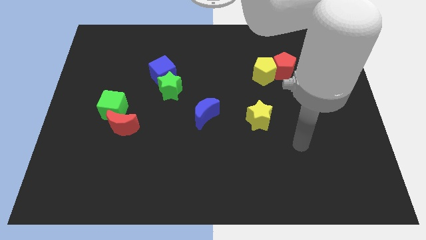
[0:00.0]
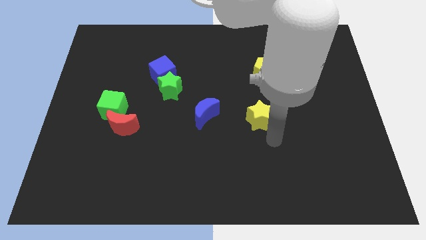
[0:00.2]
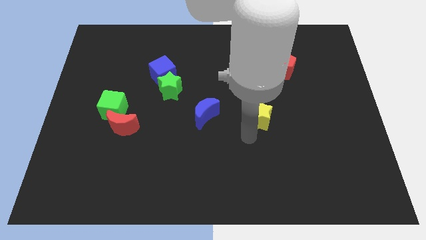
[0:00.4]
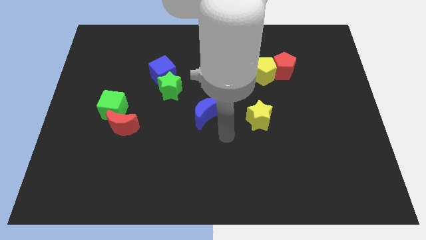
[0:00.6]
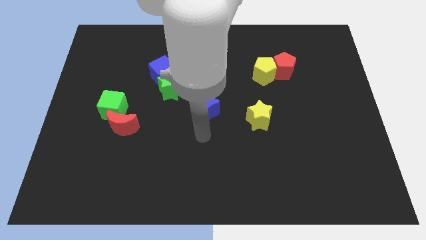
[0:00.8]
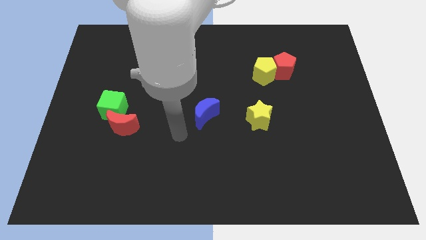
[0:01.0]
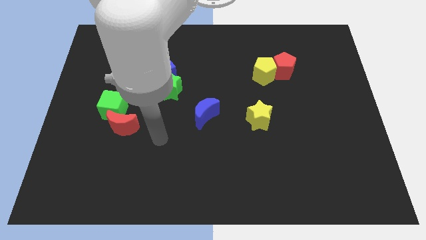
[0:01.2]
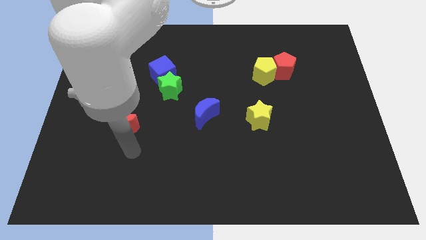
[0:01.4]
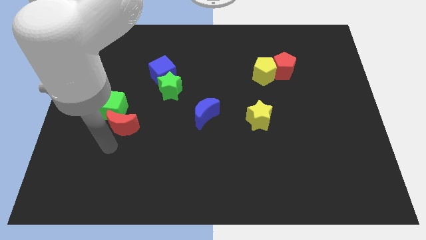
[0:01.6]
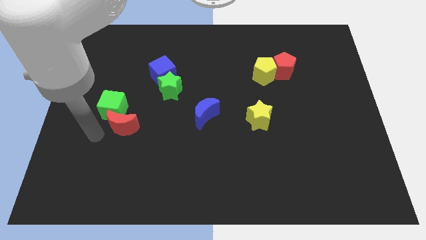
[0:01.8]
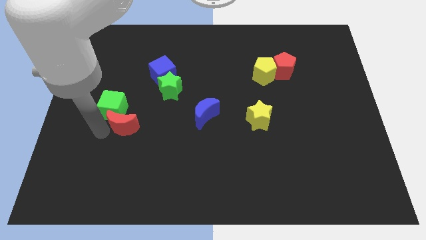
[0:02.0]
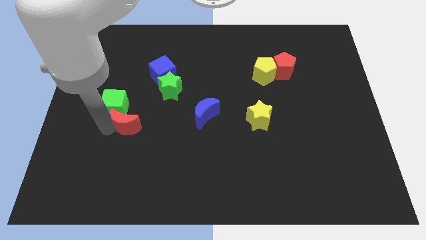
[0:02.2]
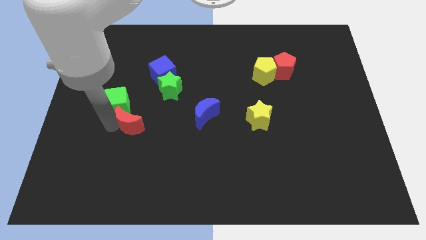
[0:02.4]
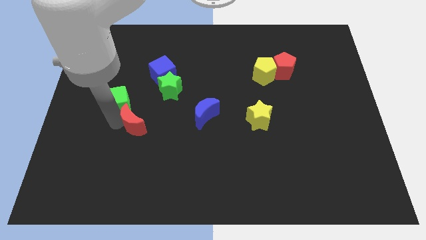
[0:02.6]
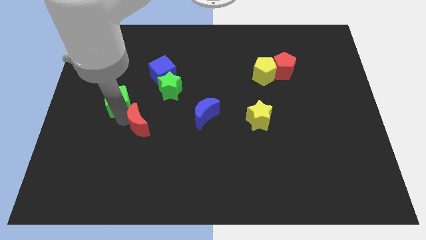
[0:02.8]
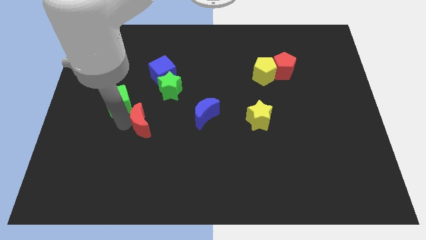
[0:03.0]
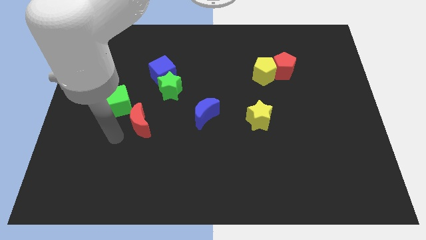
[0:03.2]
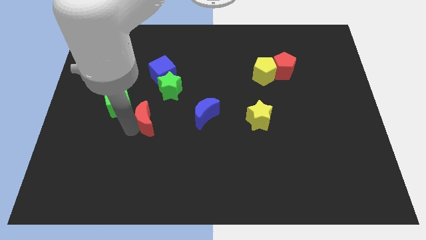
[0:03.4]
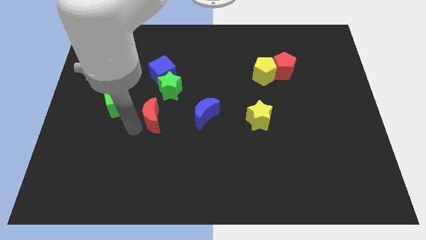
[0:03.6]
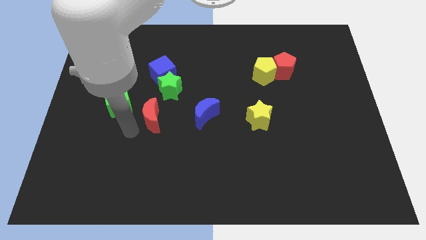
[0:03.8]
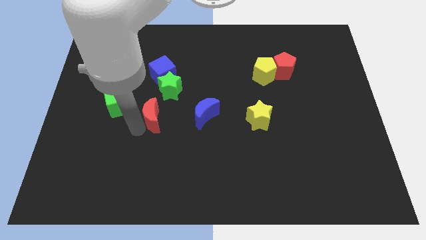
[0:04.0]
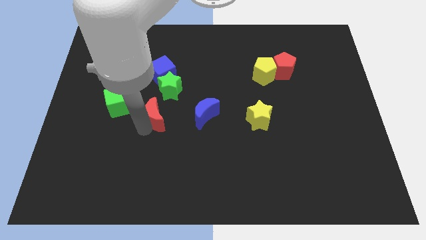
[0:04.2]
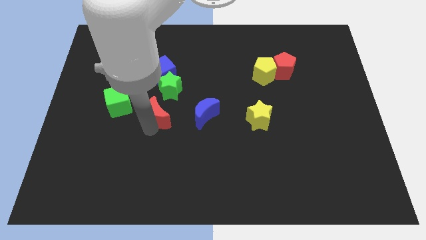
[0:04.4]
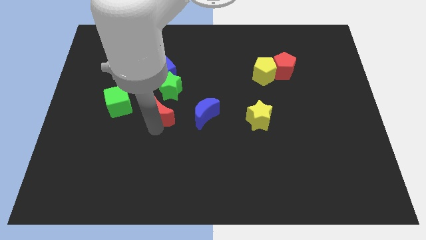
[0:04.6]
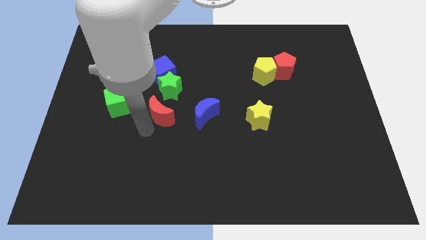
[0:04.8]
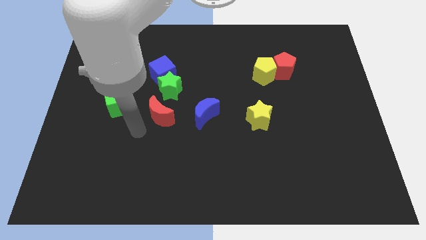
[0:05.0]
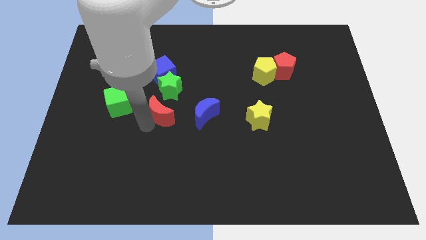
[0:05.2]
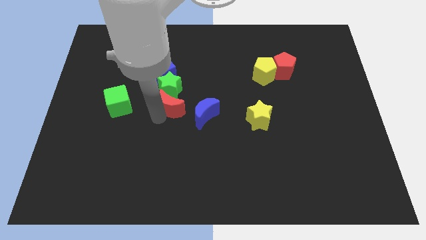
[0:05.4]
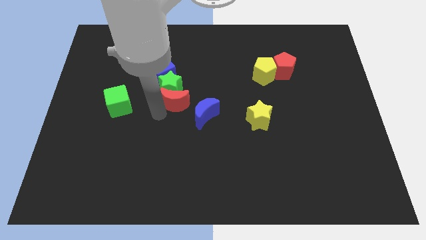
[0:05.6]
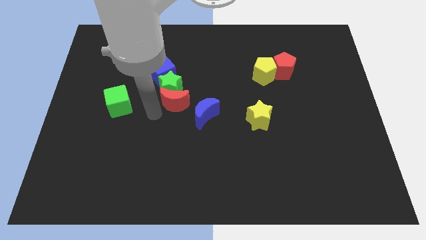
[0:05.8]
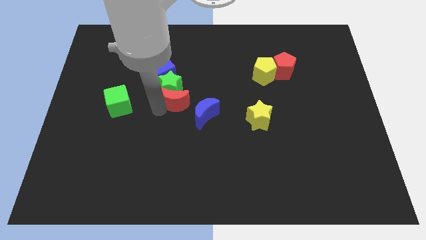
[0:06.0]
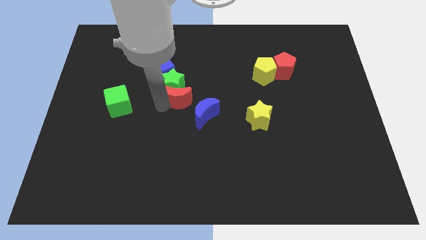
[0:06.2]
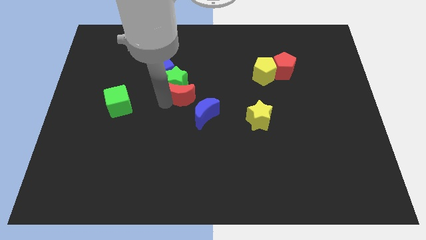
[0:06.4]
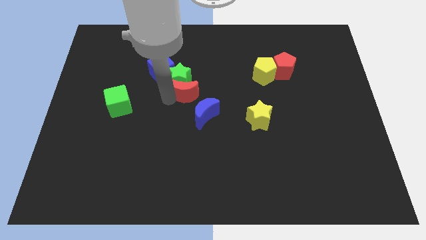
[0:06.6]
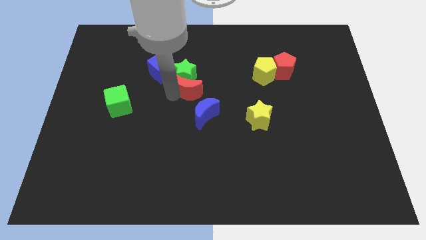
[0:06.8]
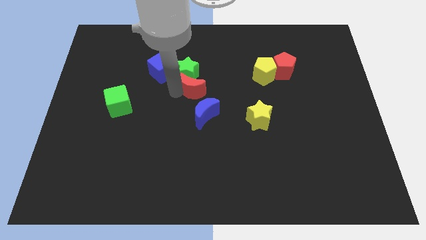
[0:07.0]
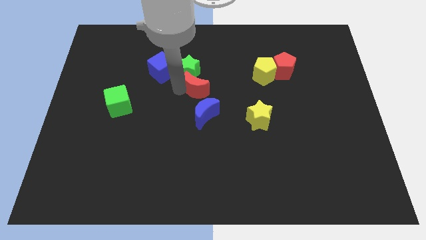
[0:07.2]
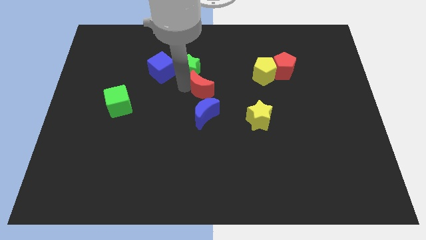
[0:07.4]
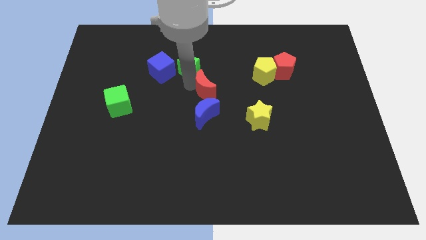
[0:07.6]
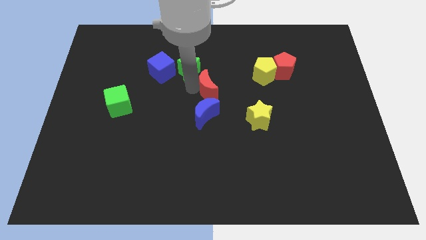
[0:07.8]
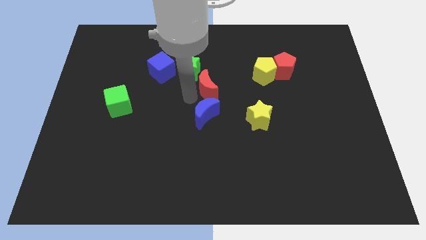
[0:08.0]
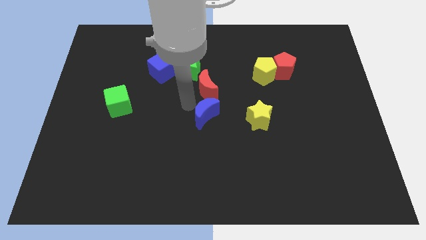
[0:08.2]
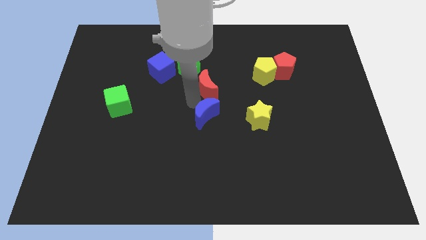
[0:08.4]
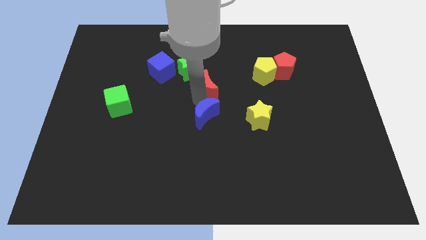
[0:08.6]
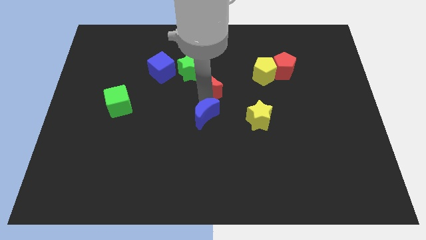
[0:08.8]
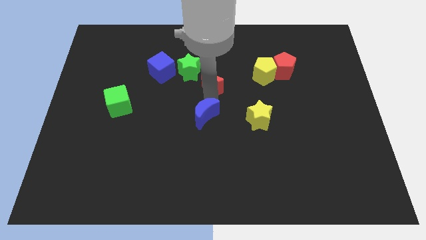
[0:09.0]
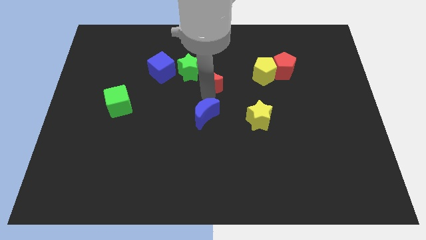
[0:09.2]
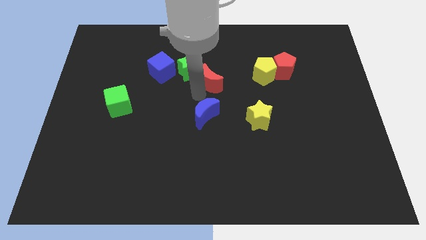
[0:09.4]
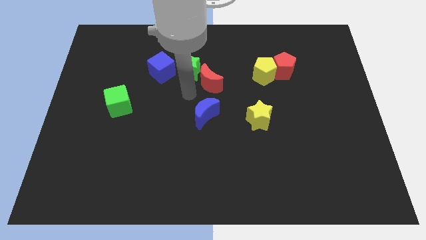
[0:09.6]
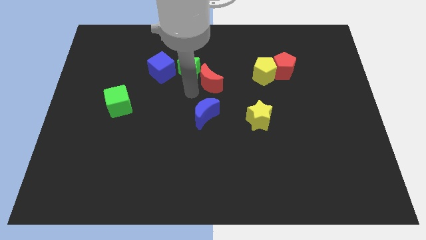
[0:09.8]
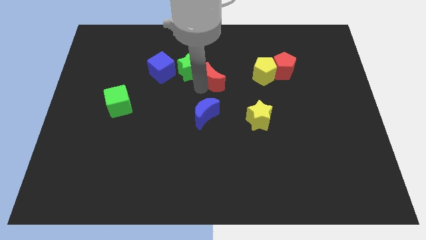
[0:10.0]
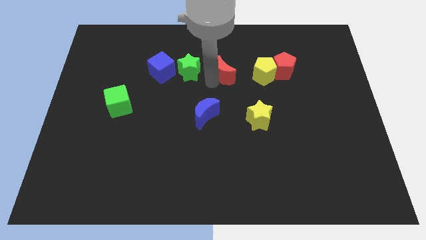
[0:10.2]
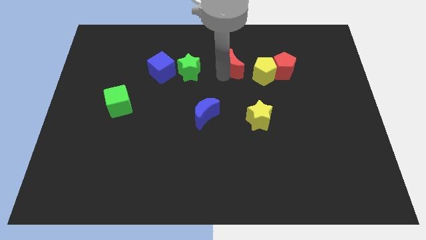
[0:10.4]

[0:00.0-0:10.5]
slide the red moon to the top left side of the yellow pentagon

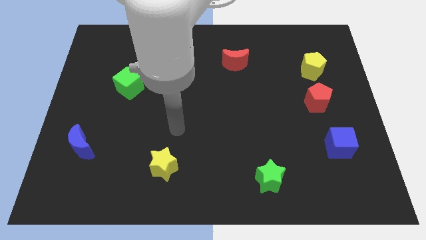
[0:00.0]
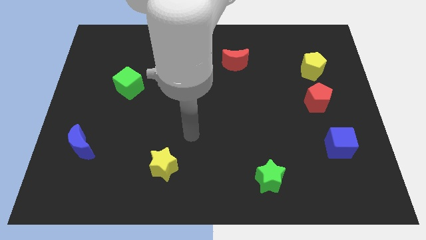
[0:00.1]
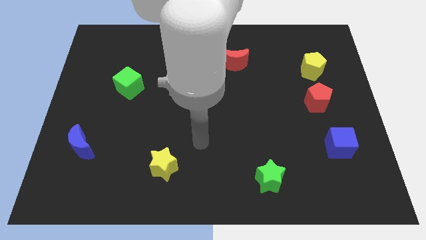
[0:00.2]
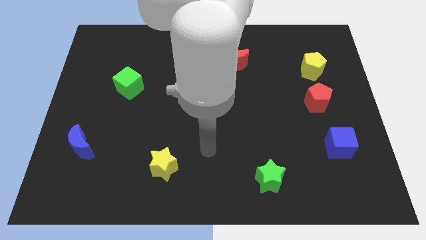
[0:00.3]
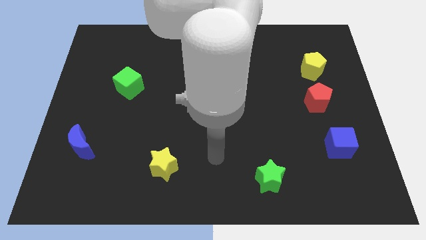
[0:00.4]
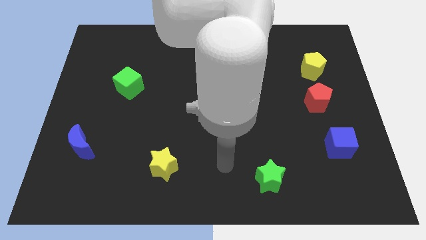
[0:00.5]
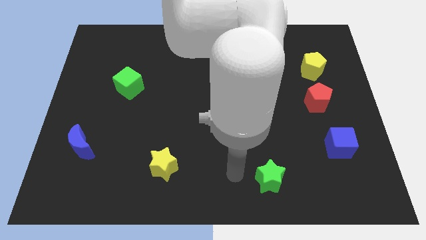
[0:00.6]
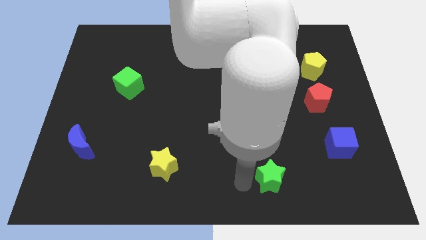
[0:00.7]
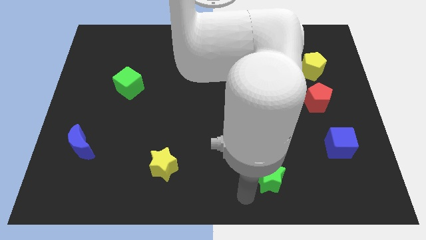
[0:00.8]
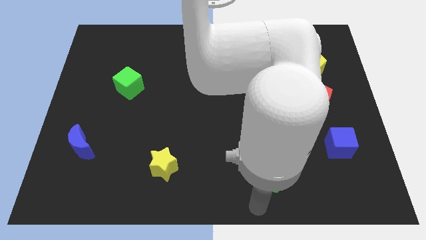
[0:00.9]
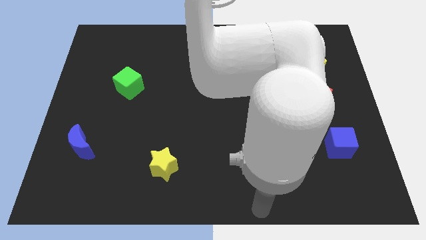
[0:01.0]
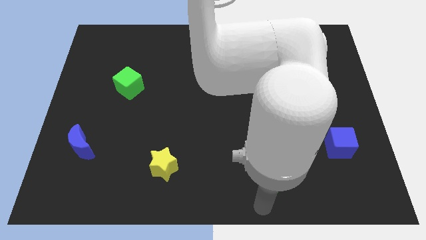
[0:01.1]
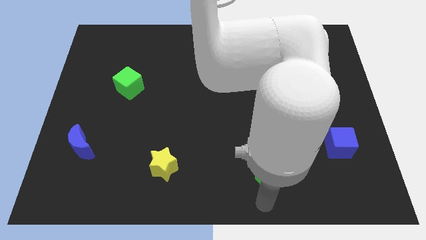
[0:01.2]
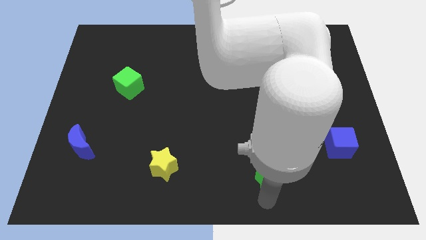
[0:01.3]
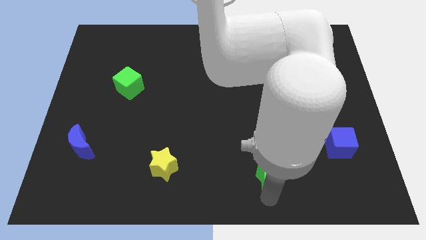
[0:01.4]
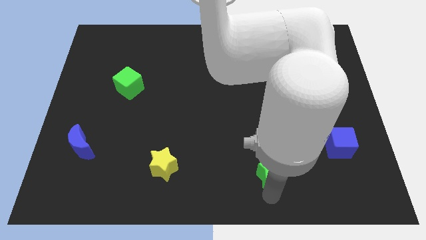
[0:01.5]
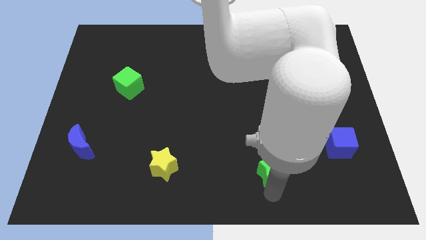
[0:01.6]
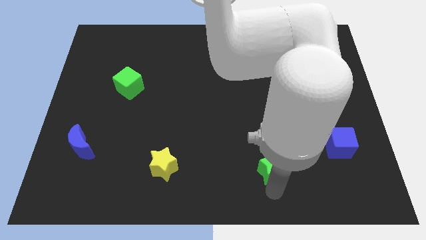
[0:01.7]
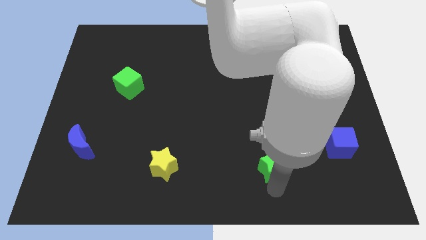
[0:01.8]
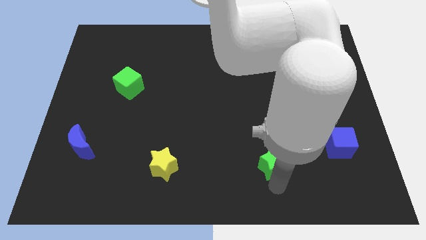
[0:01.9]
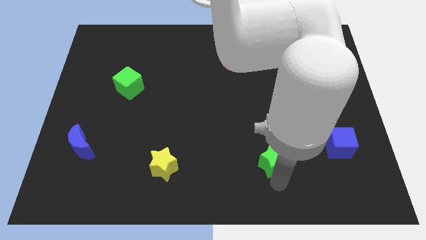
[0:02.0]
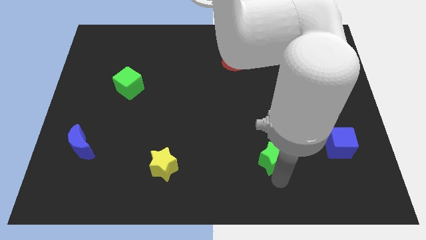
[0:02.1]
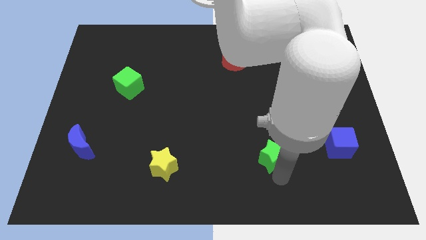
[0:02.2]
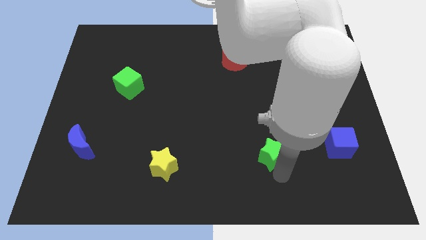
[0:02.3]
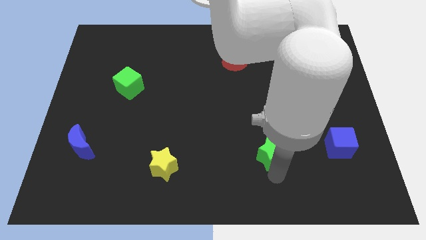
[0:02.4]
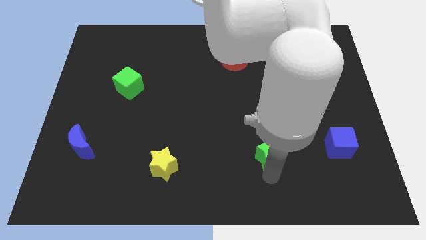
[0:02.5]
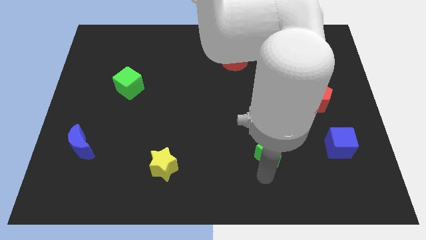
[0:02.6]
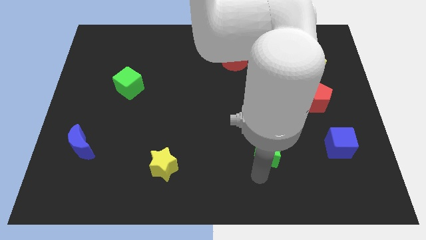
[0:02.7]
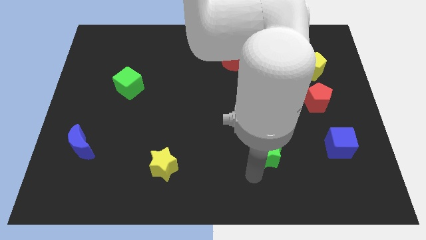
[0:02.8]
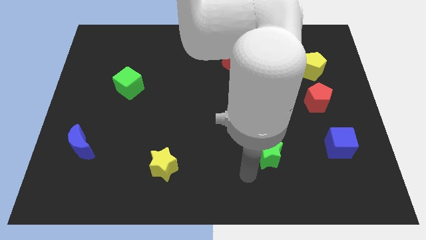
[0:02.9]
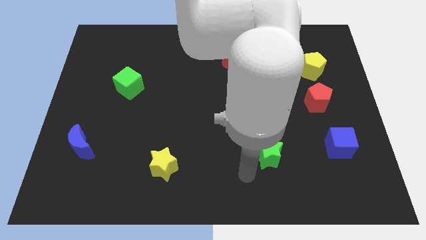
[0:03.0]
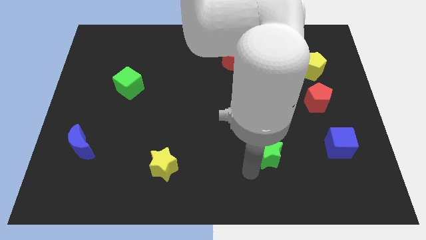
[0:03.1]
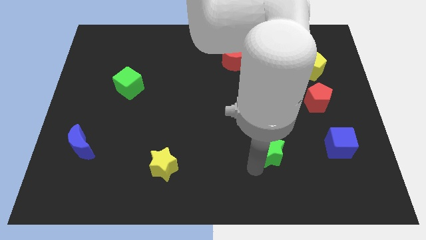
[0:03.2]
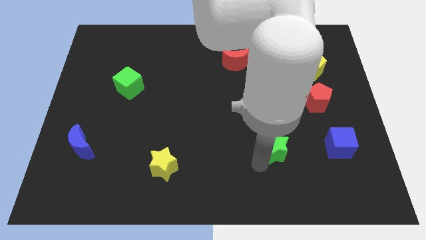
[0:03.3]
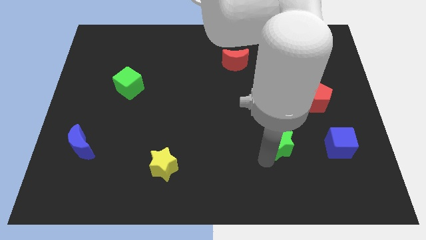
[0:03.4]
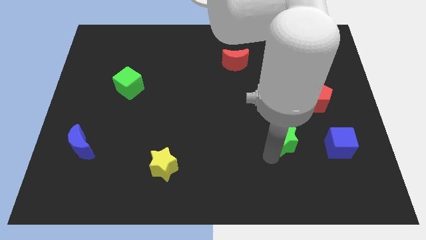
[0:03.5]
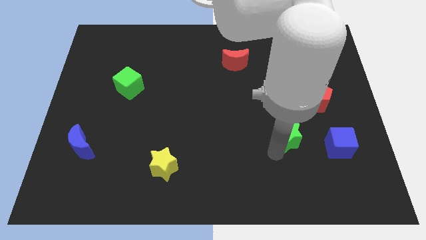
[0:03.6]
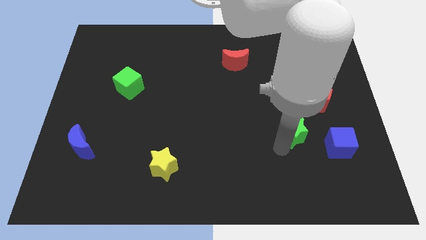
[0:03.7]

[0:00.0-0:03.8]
push the green star diagonally down and to the left of the red pentagon
